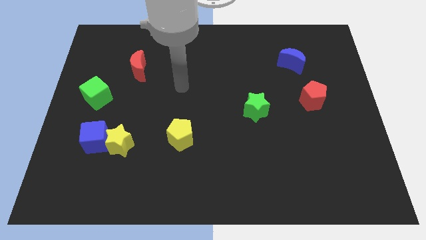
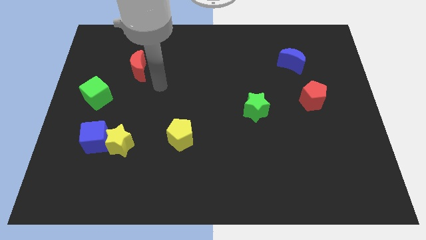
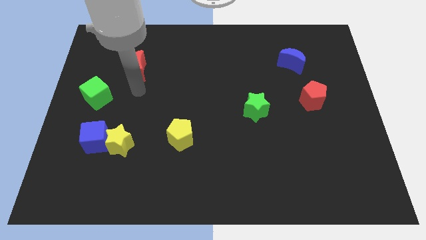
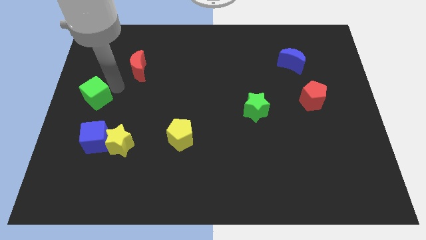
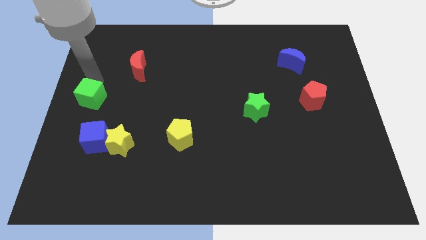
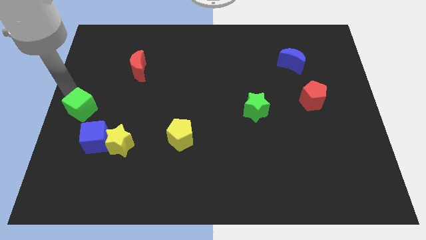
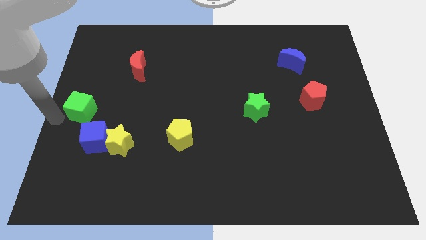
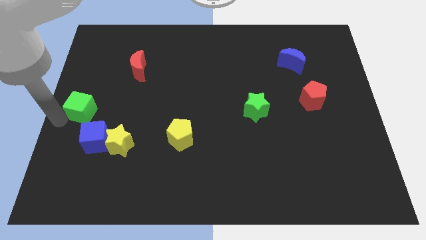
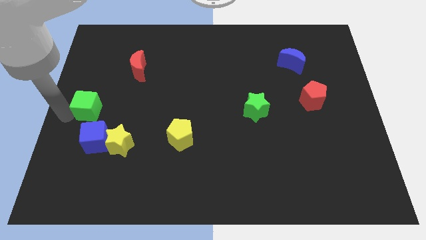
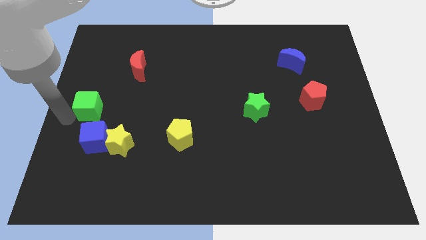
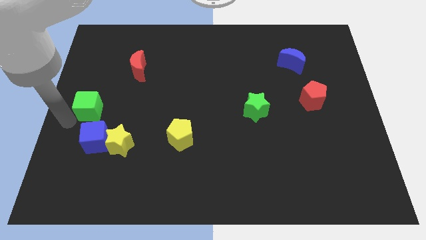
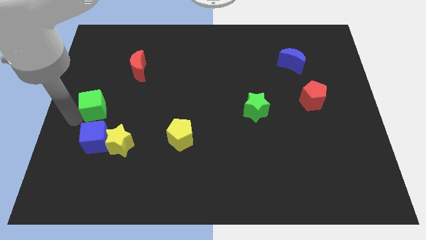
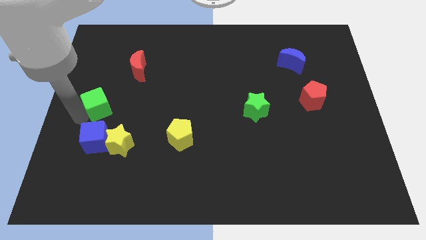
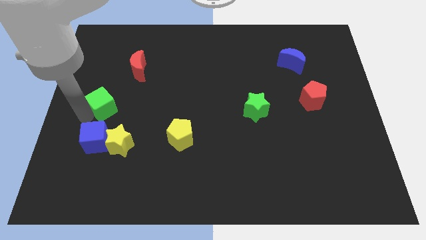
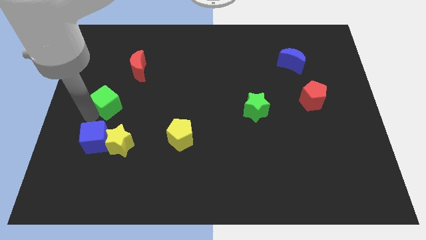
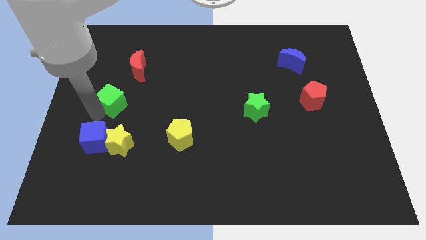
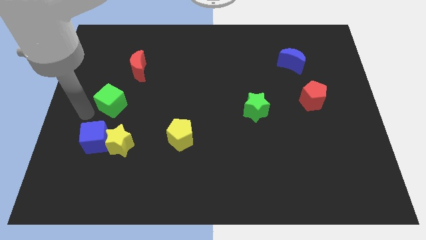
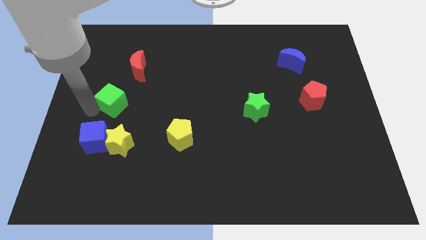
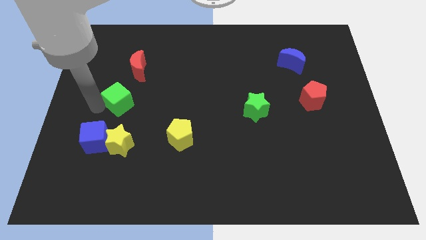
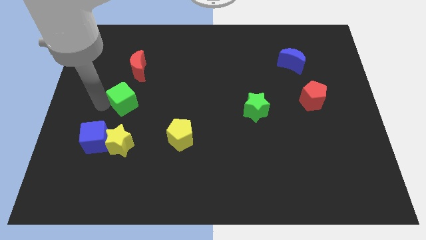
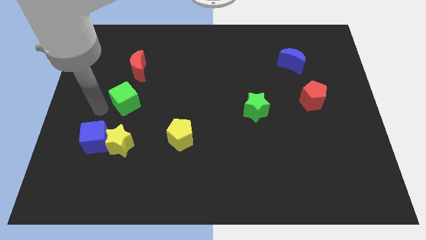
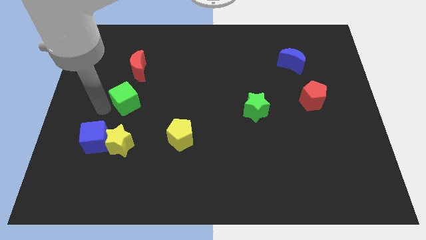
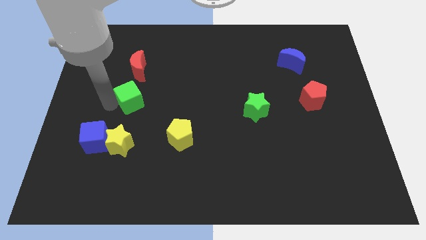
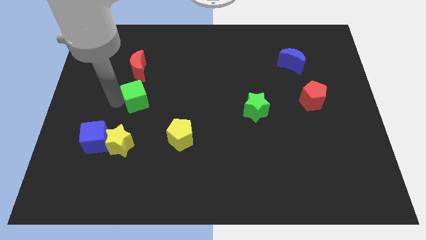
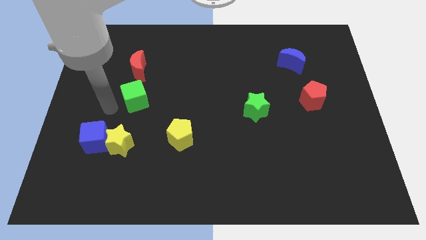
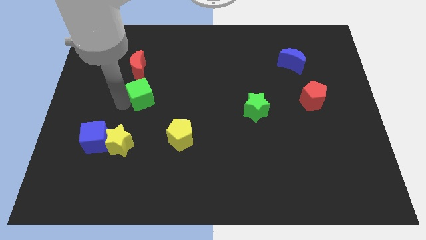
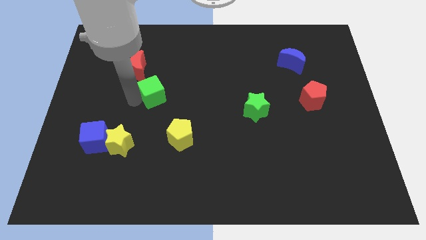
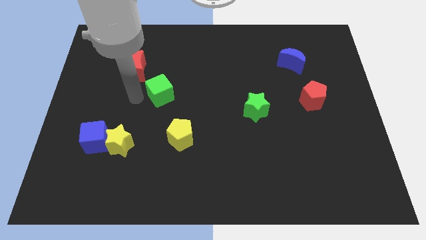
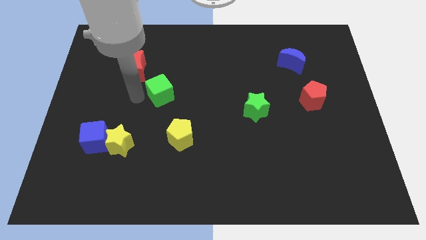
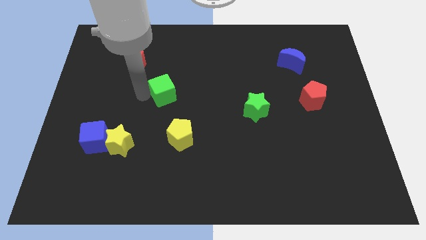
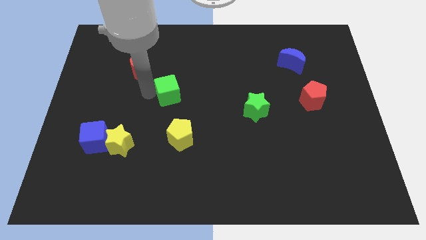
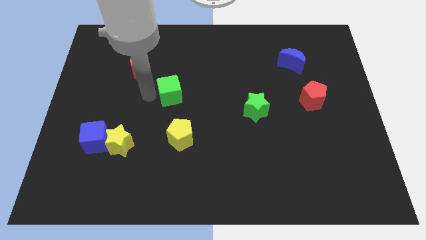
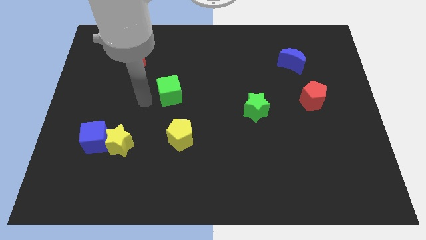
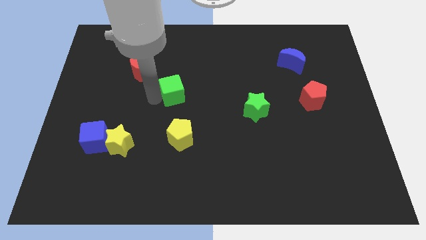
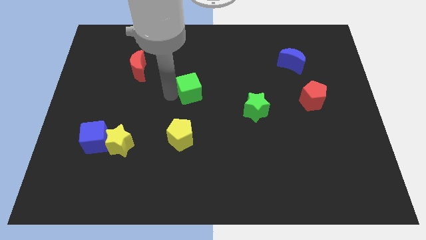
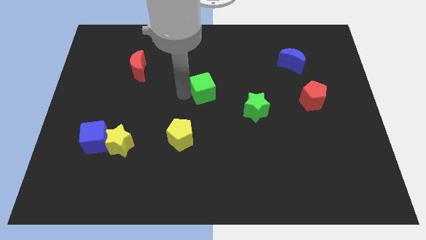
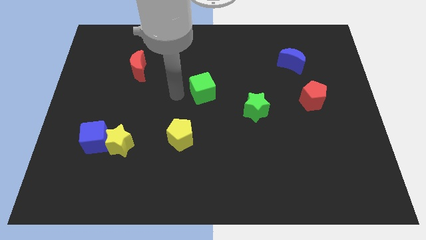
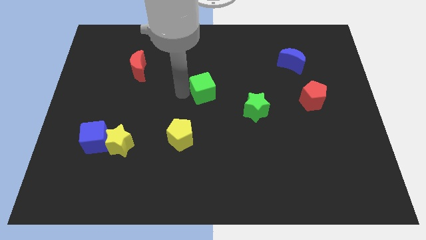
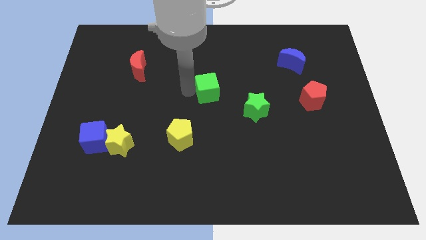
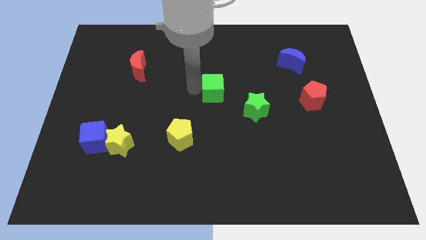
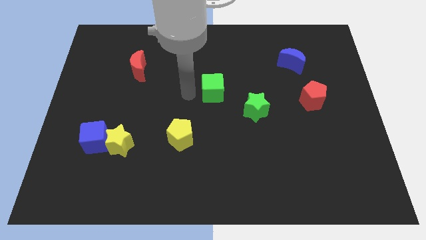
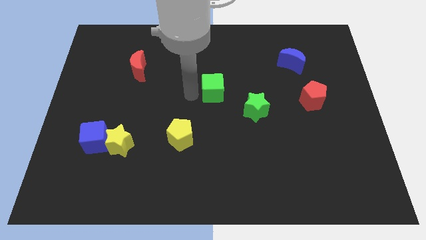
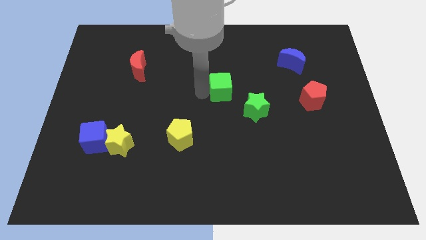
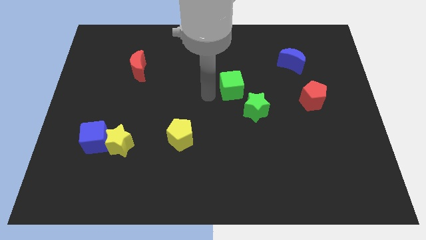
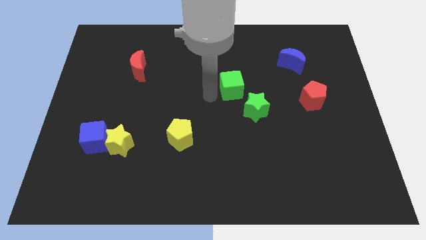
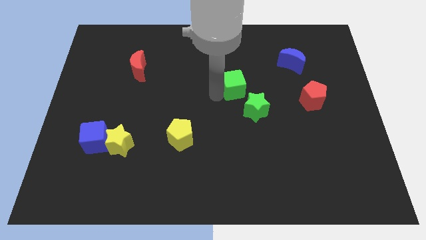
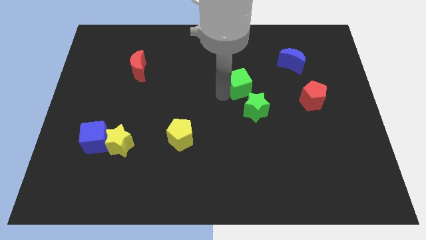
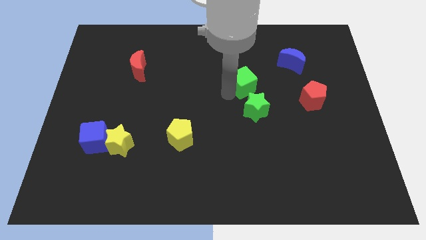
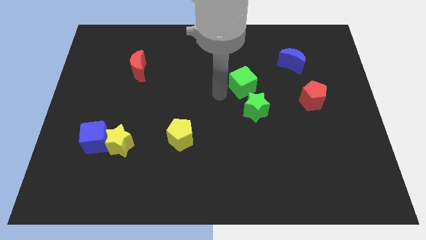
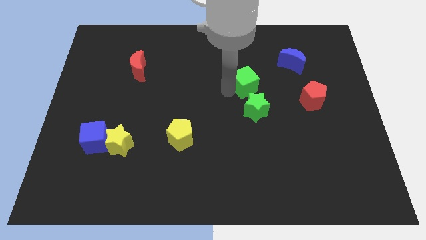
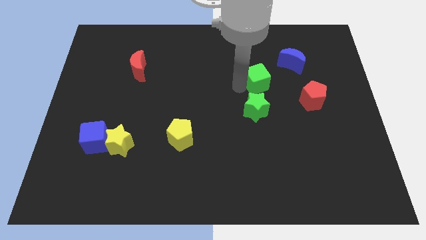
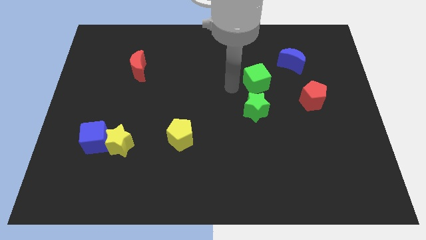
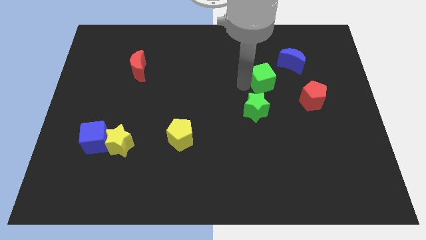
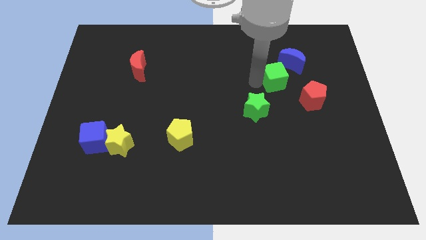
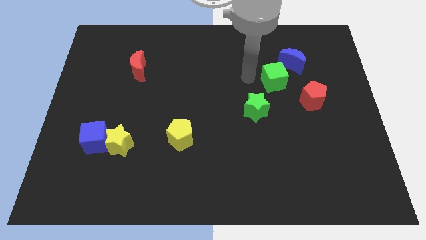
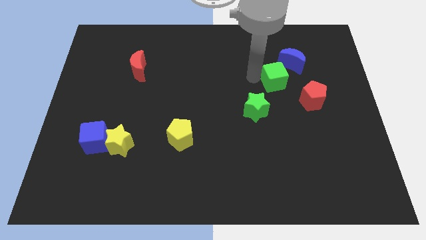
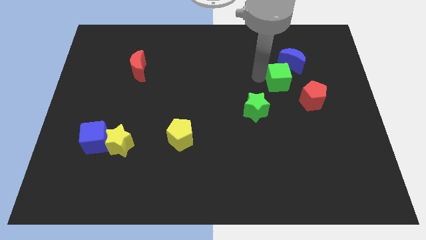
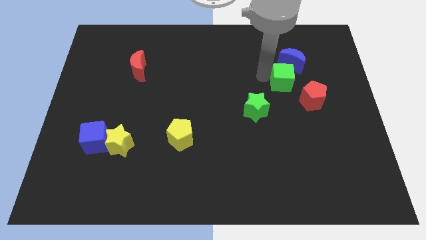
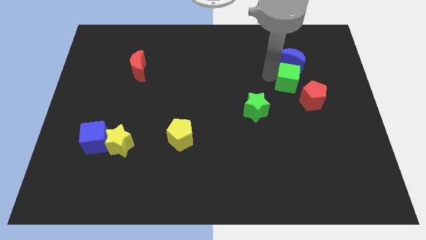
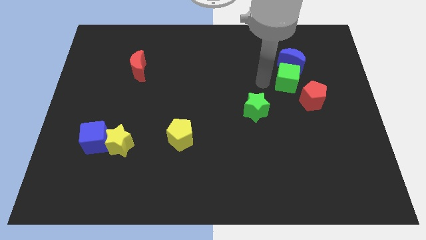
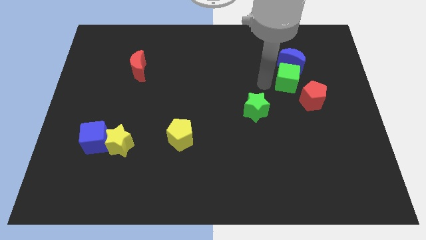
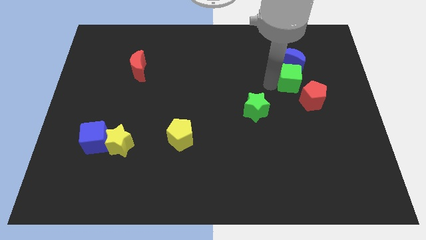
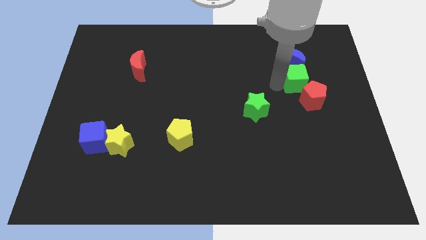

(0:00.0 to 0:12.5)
put the green cube diagonally down and to the right of the blue moon
